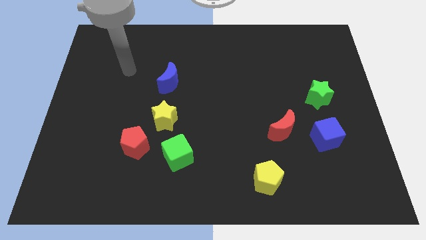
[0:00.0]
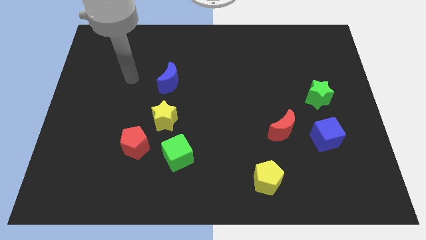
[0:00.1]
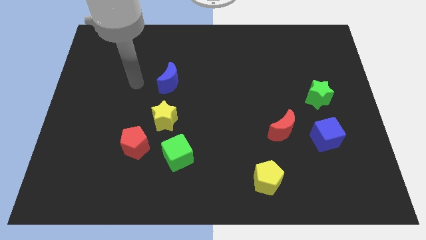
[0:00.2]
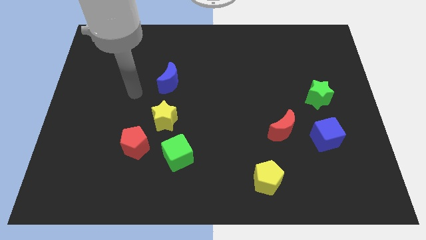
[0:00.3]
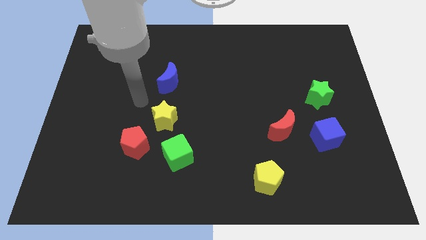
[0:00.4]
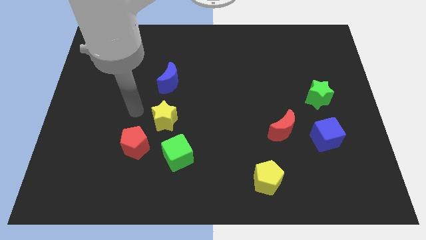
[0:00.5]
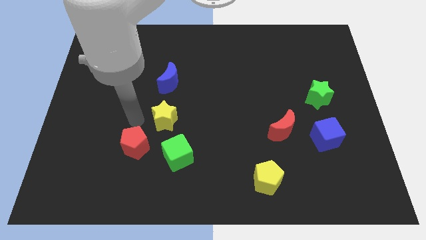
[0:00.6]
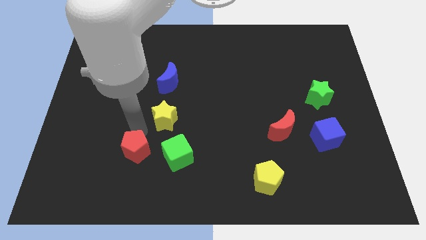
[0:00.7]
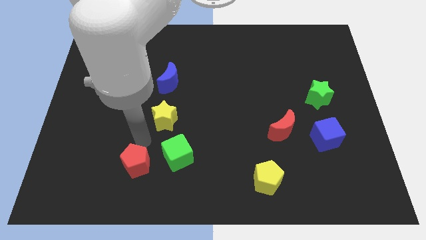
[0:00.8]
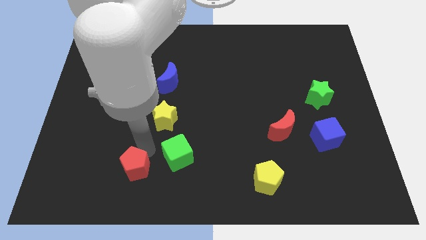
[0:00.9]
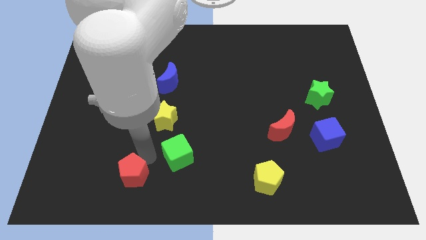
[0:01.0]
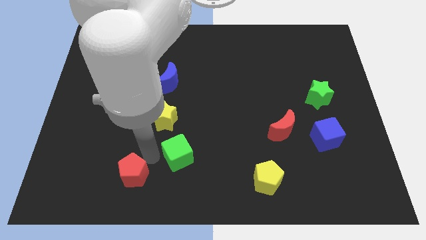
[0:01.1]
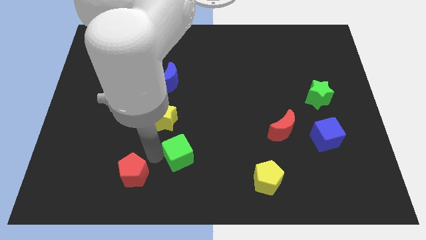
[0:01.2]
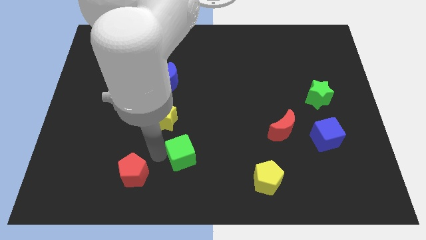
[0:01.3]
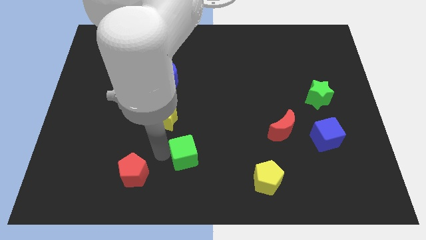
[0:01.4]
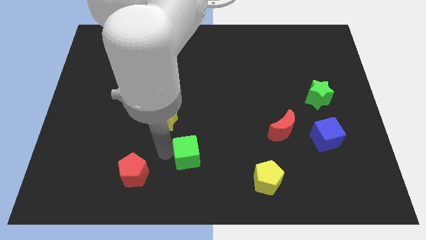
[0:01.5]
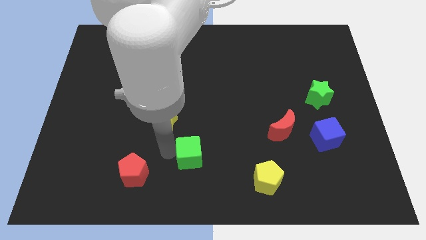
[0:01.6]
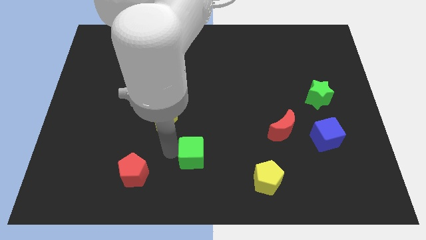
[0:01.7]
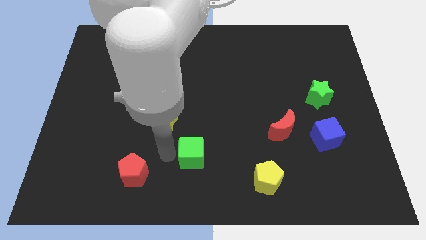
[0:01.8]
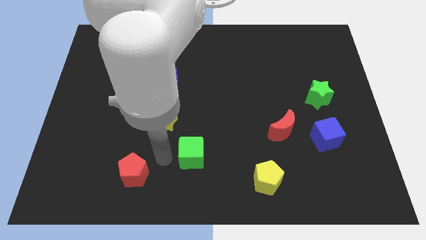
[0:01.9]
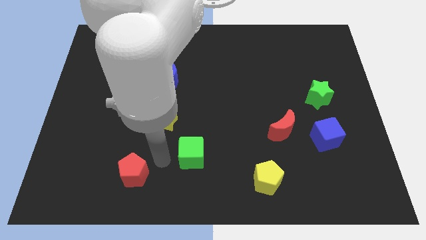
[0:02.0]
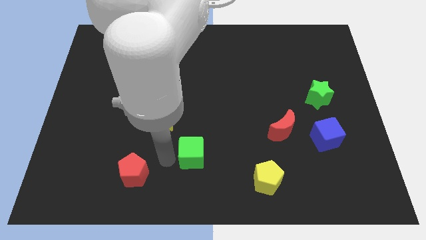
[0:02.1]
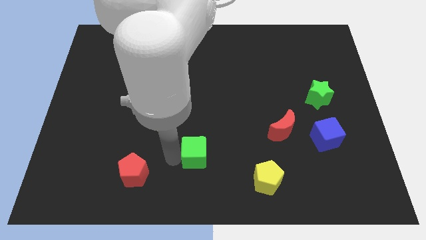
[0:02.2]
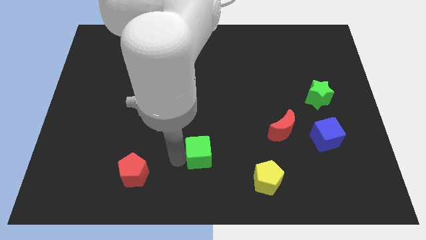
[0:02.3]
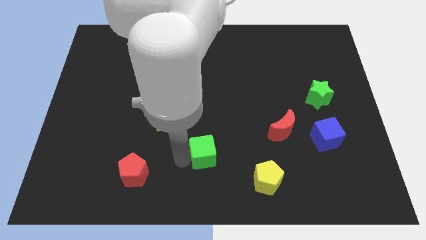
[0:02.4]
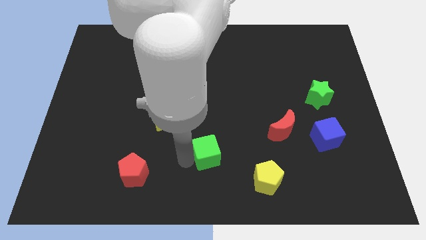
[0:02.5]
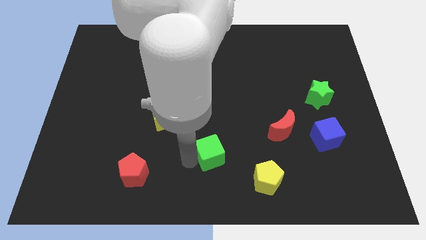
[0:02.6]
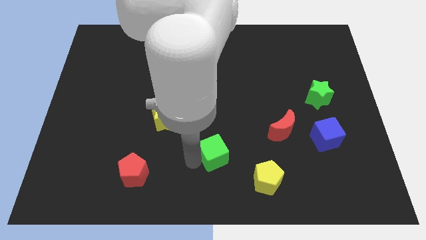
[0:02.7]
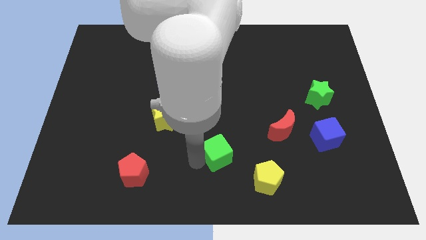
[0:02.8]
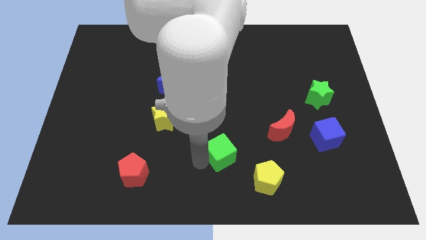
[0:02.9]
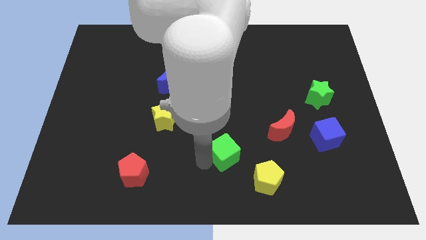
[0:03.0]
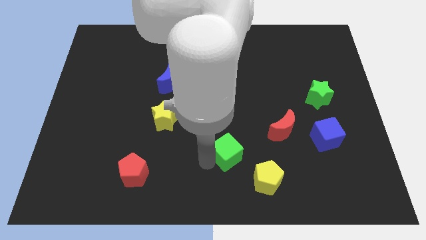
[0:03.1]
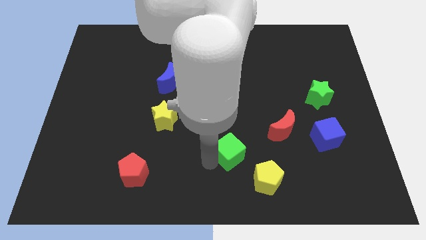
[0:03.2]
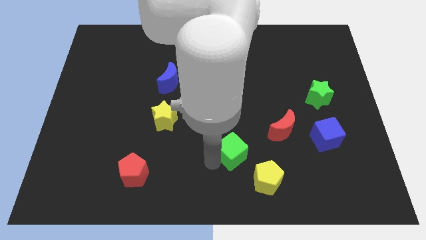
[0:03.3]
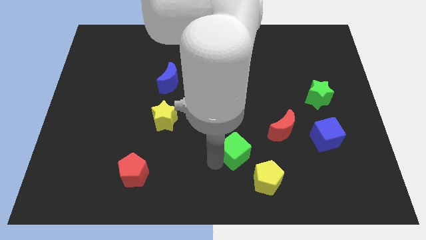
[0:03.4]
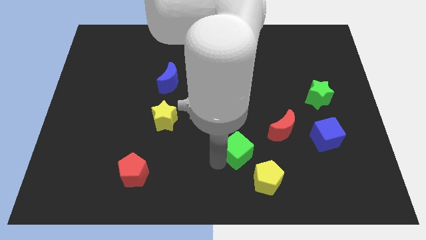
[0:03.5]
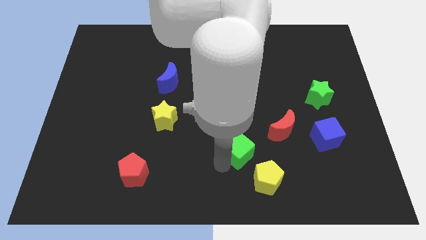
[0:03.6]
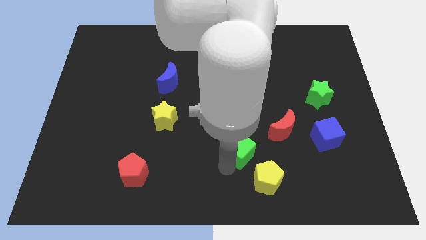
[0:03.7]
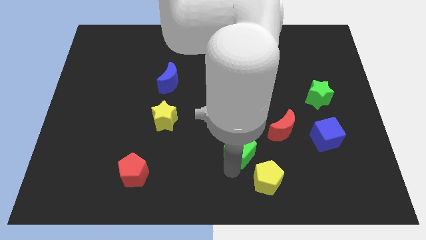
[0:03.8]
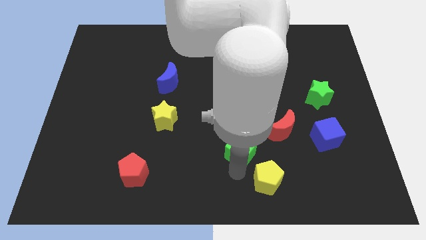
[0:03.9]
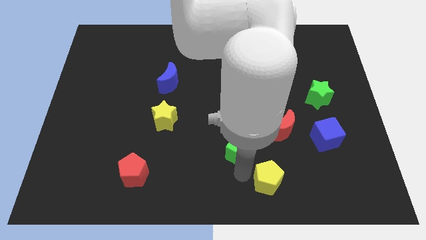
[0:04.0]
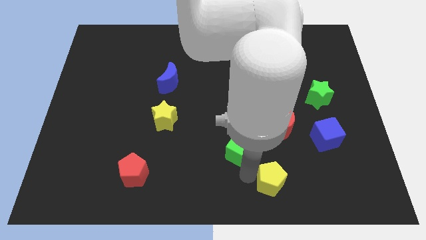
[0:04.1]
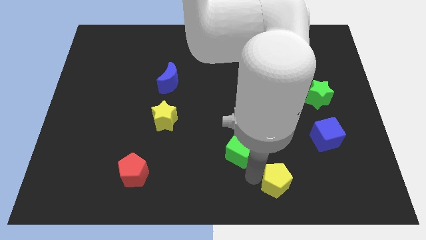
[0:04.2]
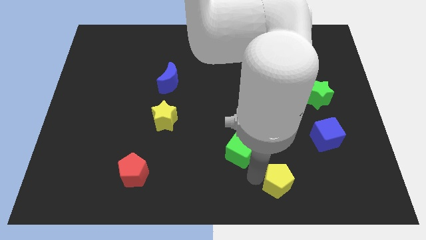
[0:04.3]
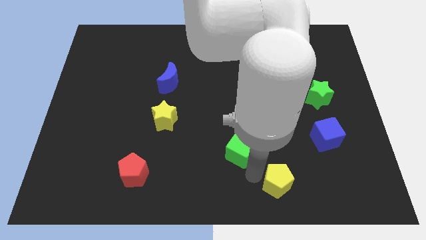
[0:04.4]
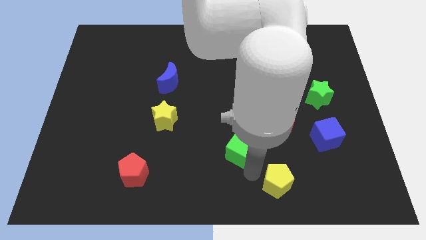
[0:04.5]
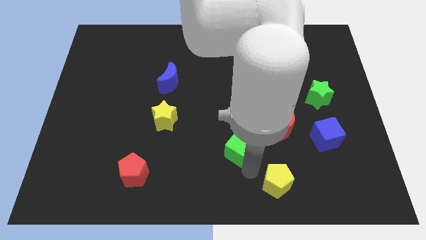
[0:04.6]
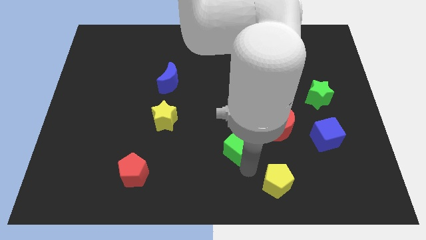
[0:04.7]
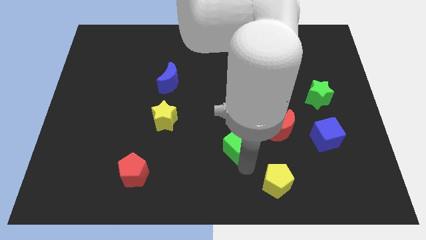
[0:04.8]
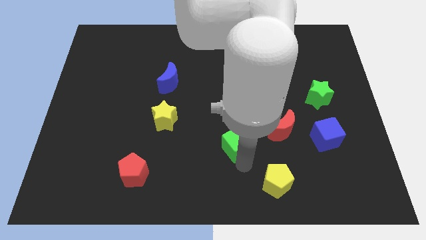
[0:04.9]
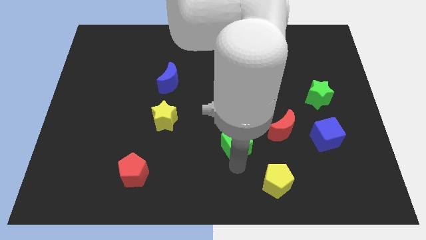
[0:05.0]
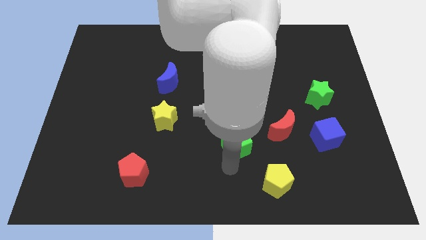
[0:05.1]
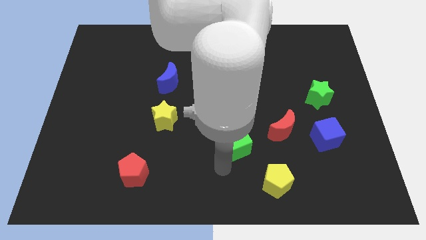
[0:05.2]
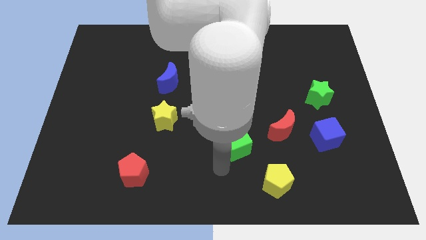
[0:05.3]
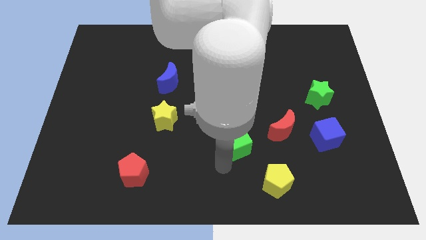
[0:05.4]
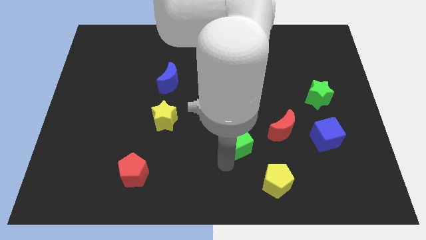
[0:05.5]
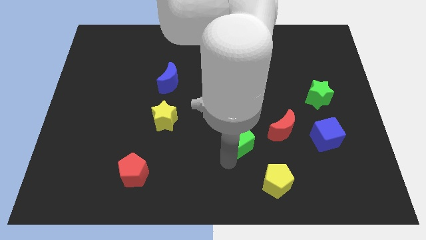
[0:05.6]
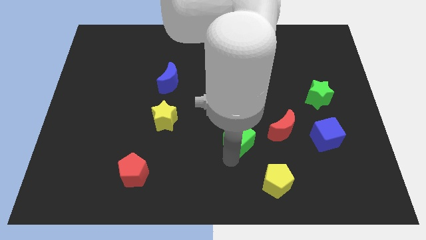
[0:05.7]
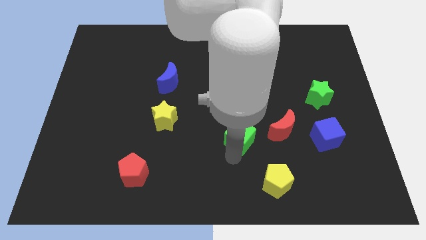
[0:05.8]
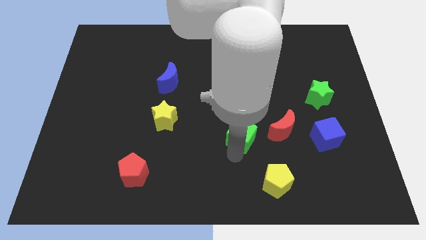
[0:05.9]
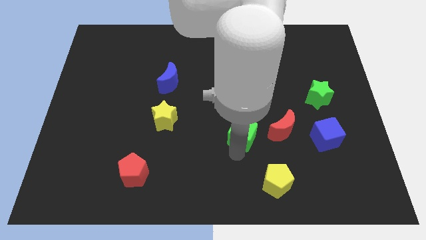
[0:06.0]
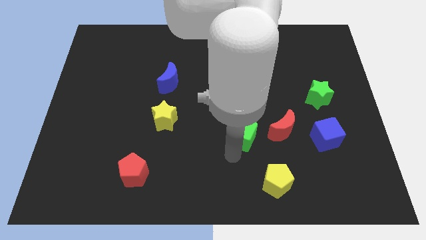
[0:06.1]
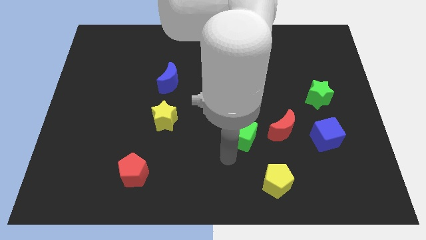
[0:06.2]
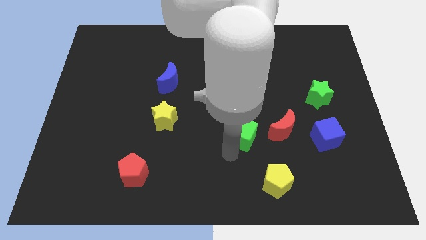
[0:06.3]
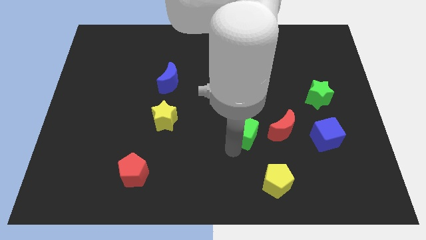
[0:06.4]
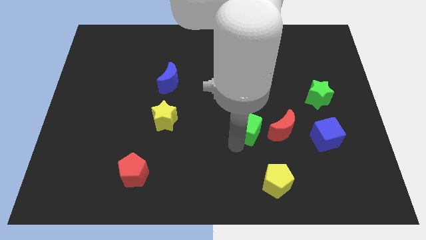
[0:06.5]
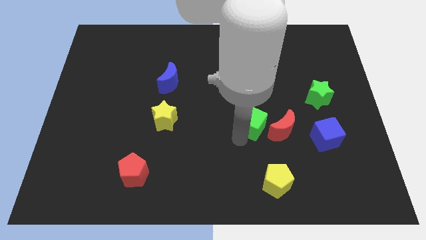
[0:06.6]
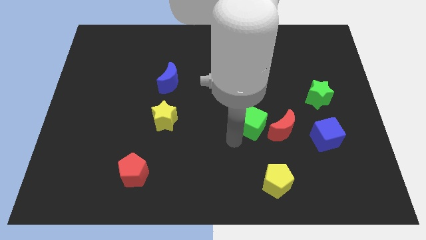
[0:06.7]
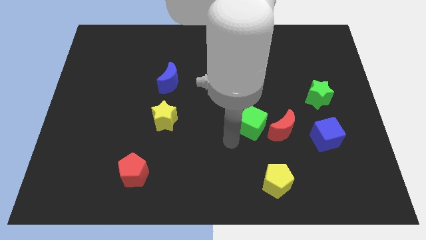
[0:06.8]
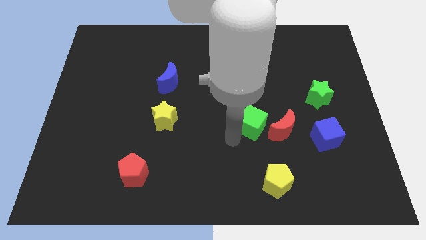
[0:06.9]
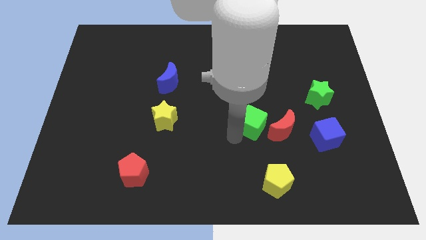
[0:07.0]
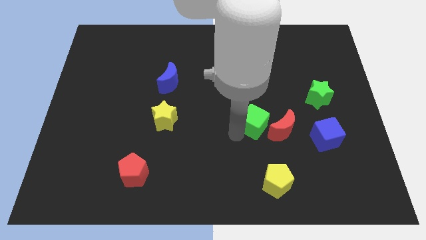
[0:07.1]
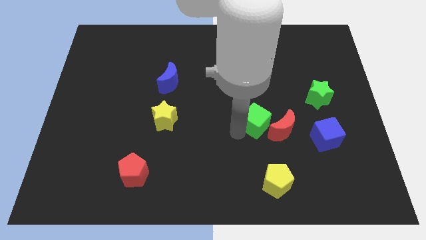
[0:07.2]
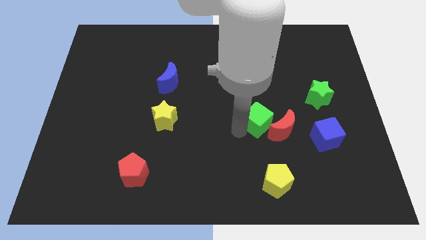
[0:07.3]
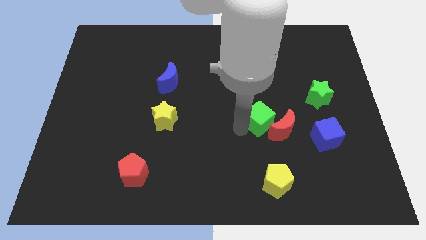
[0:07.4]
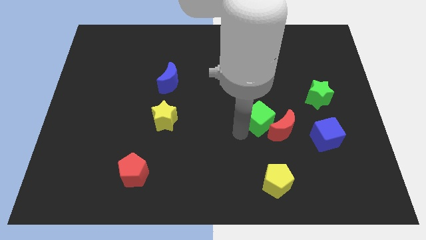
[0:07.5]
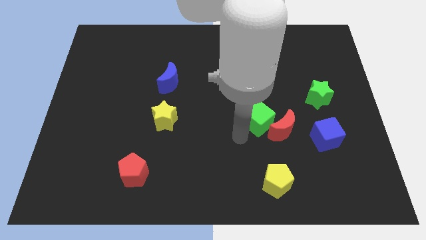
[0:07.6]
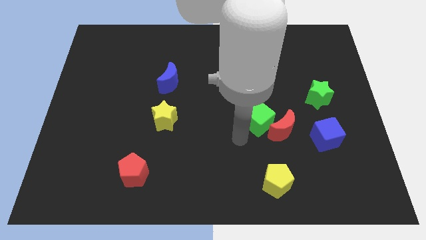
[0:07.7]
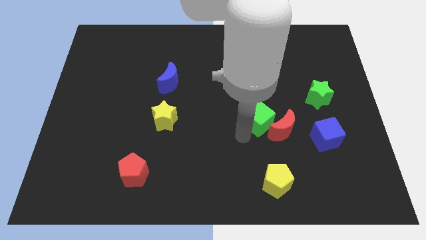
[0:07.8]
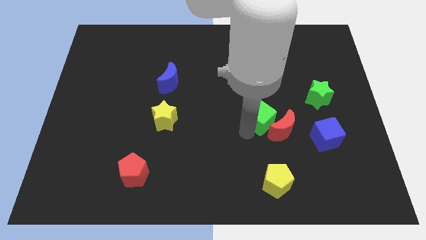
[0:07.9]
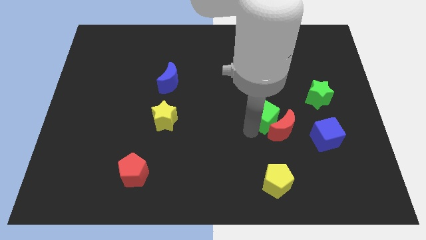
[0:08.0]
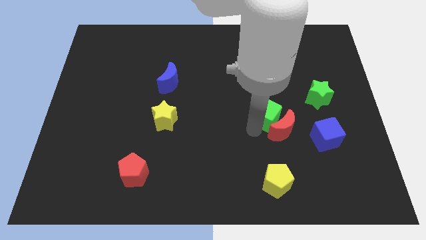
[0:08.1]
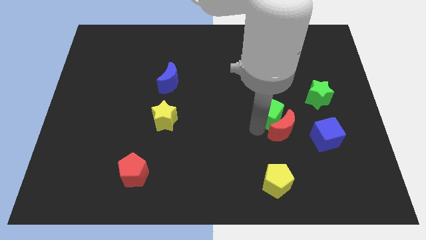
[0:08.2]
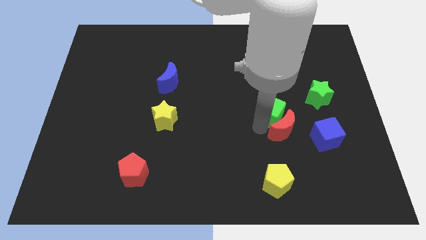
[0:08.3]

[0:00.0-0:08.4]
move the green cube to the left of the green star
